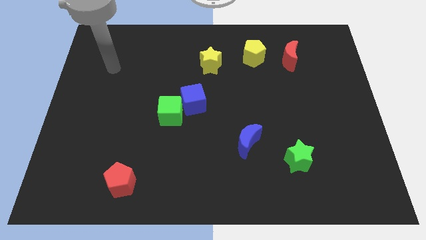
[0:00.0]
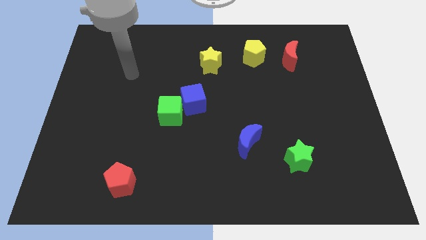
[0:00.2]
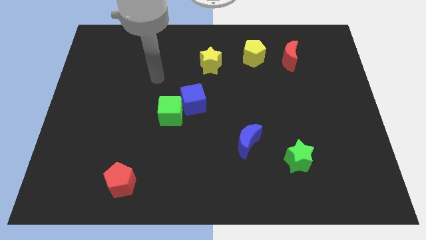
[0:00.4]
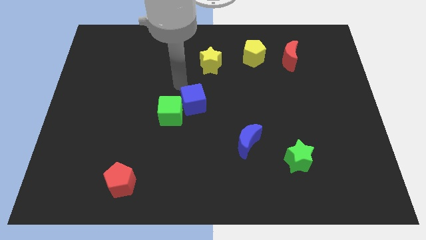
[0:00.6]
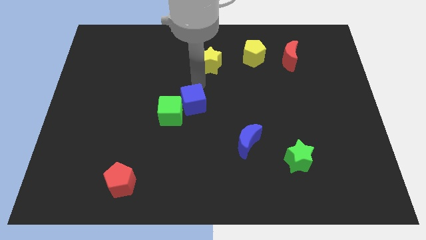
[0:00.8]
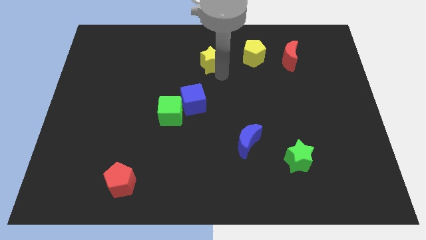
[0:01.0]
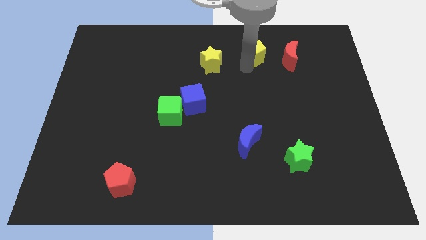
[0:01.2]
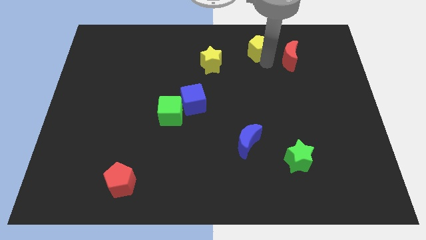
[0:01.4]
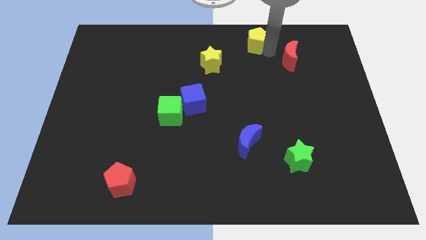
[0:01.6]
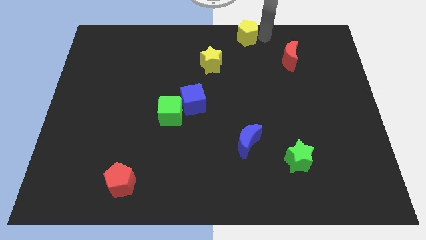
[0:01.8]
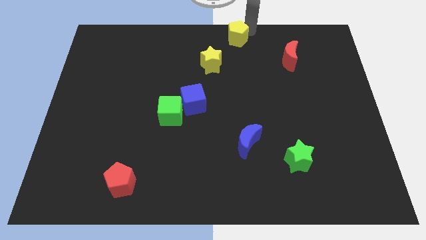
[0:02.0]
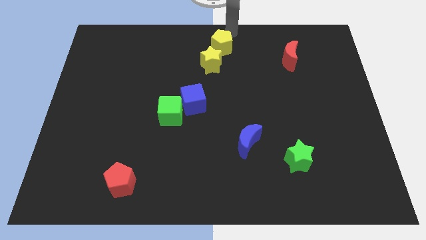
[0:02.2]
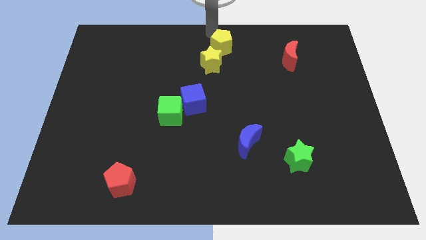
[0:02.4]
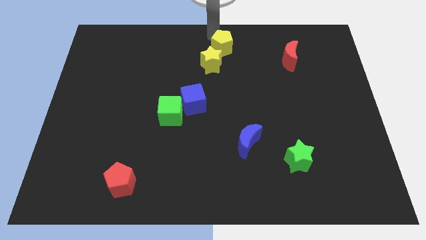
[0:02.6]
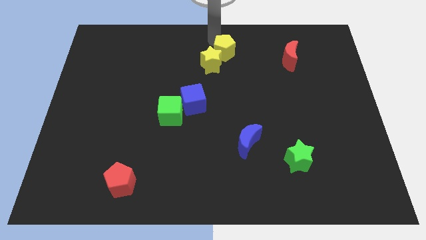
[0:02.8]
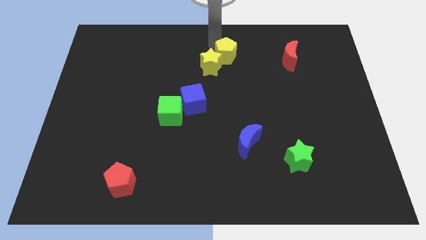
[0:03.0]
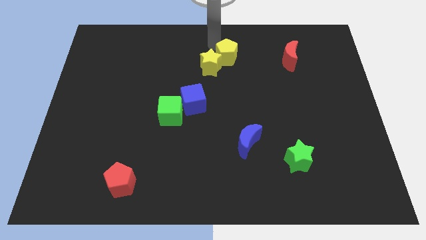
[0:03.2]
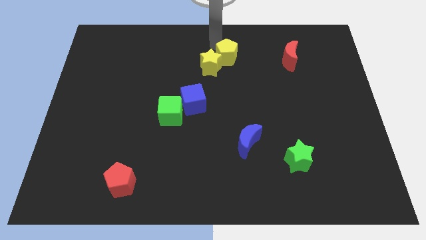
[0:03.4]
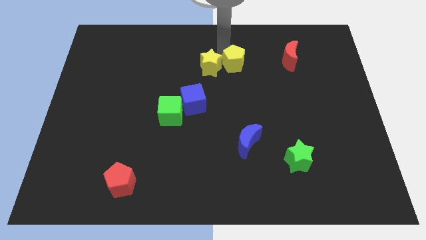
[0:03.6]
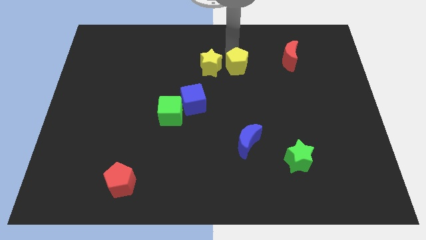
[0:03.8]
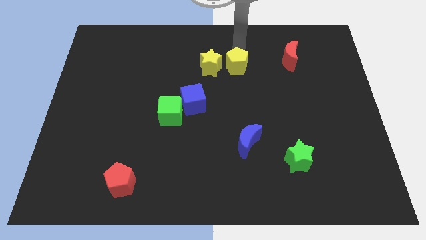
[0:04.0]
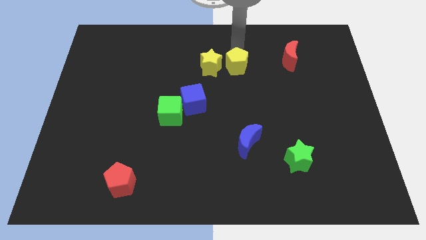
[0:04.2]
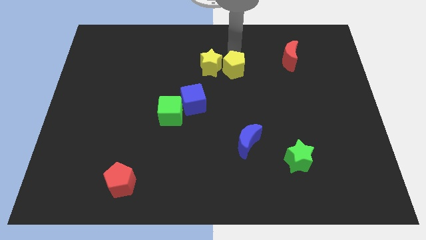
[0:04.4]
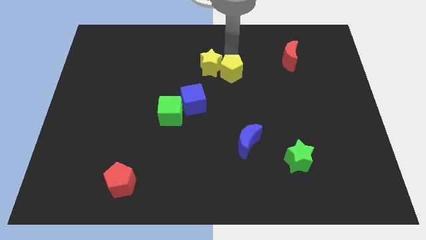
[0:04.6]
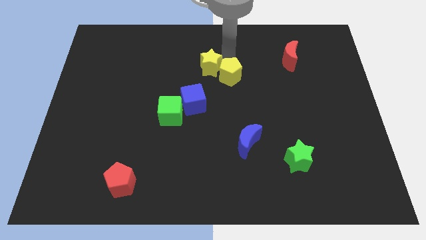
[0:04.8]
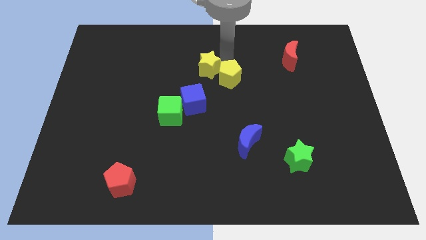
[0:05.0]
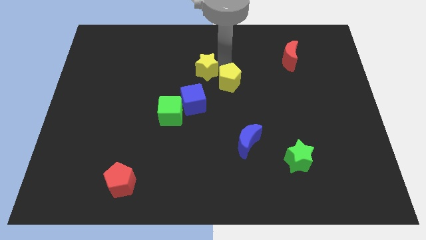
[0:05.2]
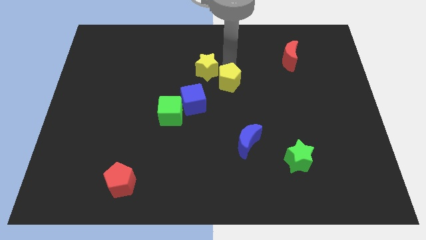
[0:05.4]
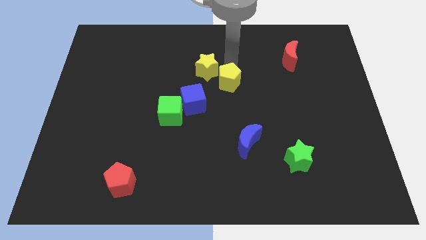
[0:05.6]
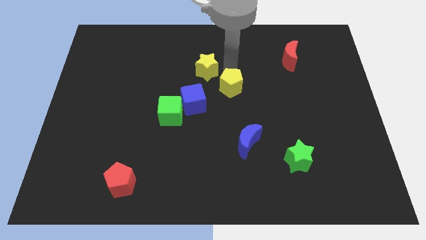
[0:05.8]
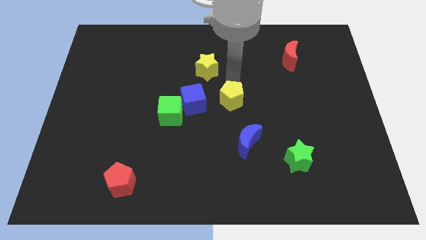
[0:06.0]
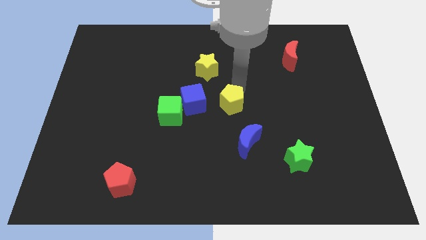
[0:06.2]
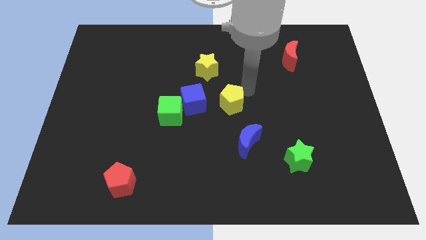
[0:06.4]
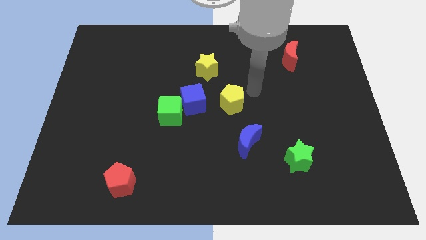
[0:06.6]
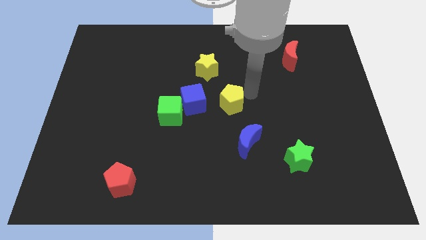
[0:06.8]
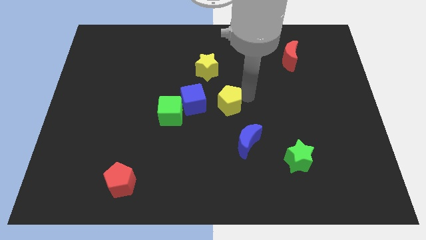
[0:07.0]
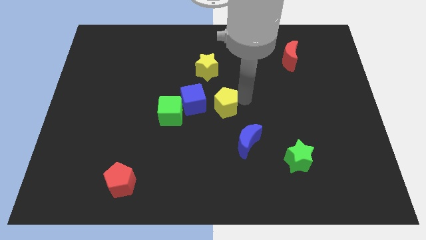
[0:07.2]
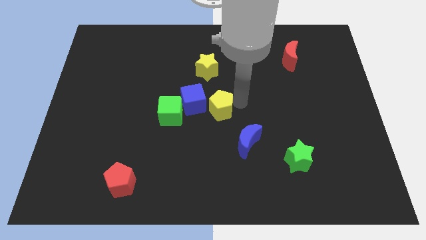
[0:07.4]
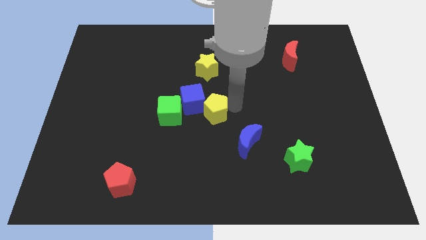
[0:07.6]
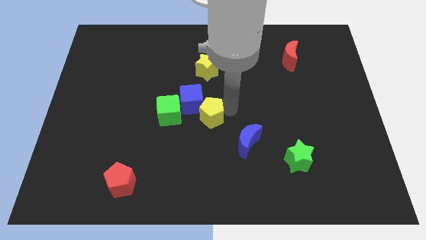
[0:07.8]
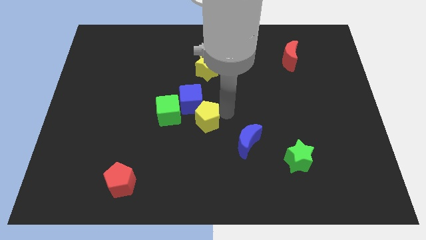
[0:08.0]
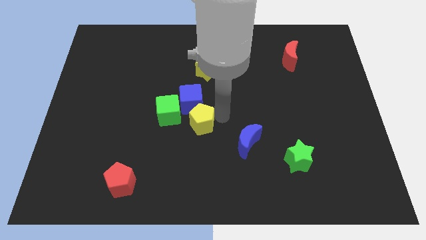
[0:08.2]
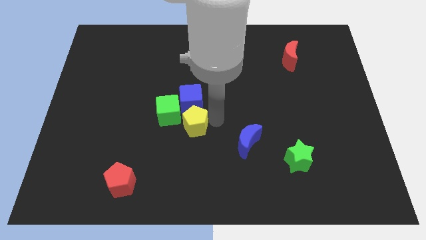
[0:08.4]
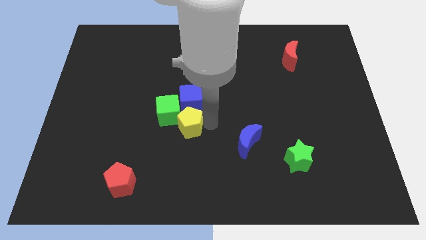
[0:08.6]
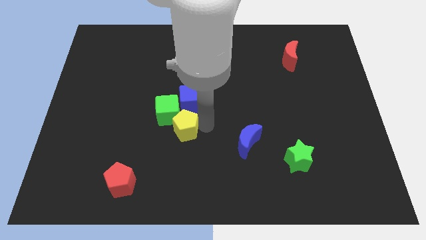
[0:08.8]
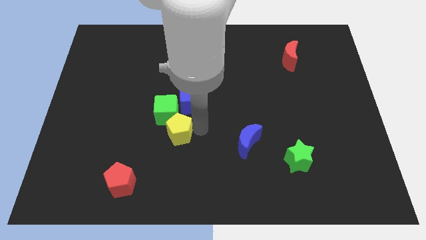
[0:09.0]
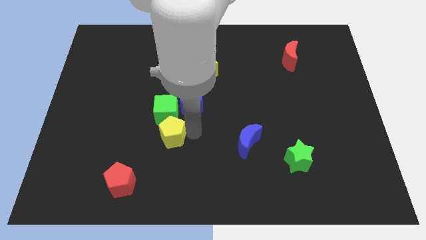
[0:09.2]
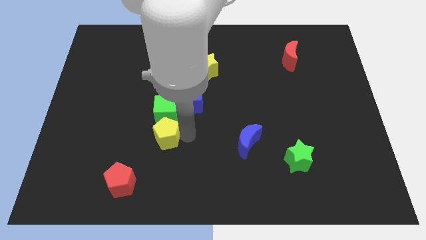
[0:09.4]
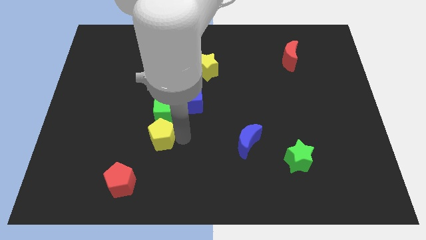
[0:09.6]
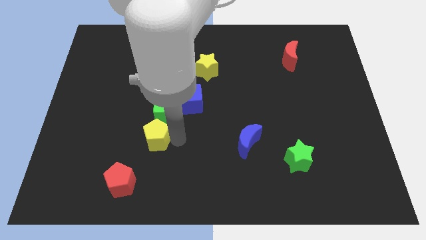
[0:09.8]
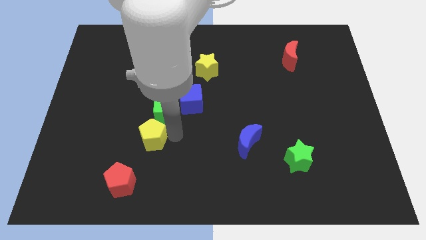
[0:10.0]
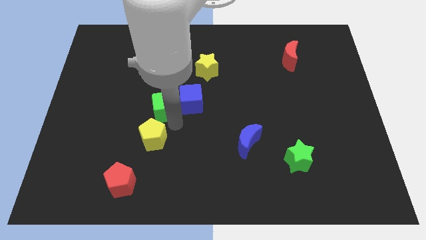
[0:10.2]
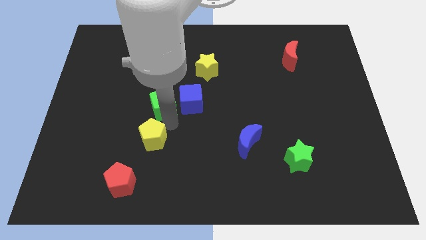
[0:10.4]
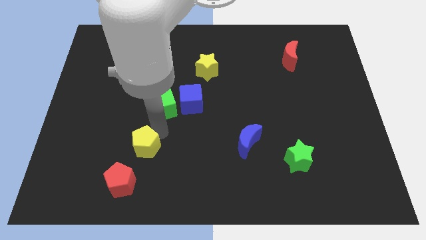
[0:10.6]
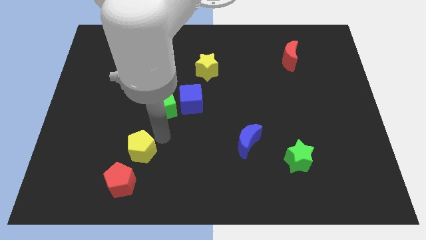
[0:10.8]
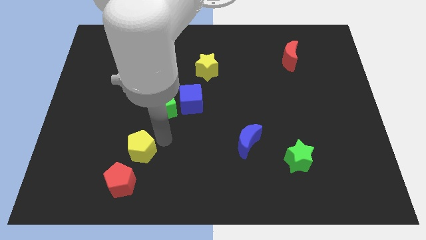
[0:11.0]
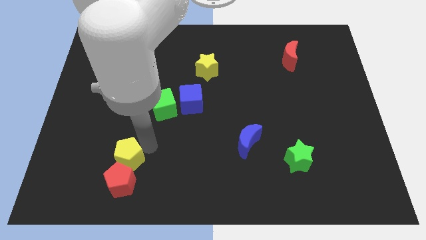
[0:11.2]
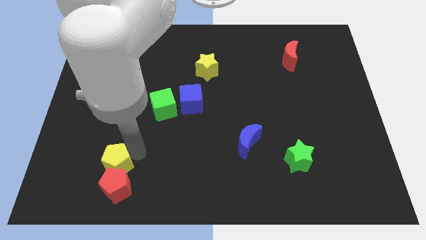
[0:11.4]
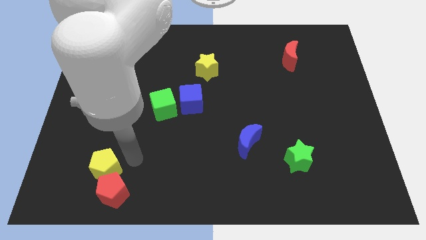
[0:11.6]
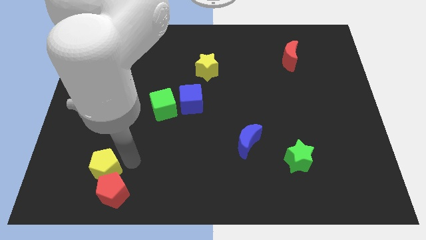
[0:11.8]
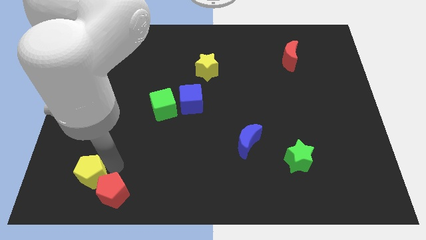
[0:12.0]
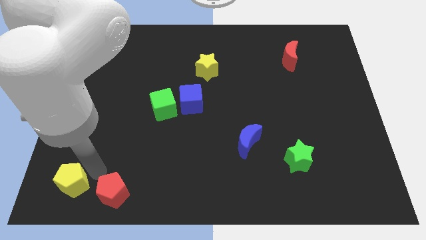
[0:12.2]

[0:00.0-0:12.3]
push the yellow pentagon to the lower left corner

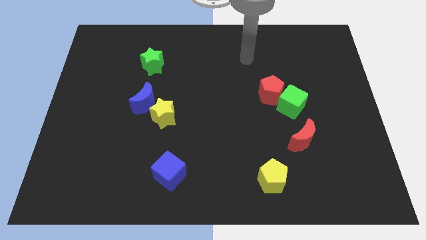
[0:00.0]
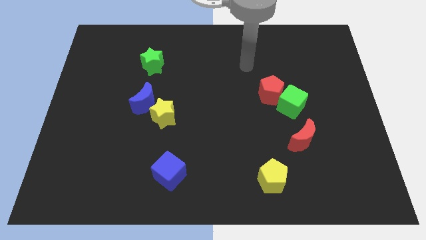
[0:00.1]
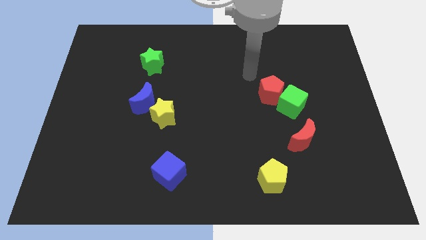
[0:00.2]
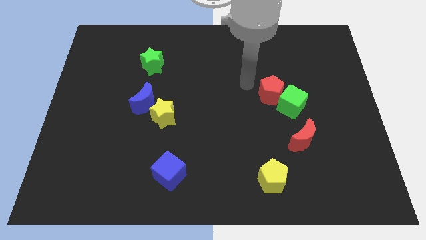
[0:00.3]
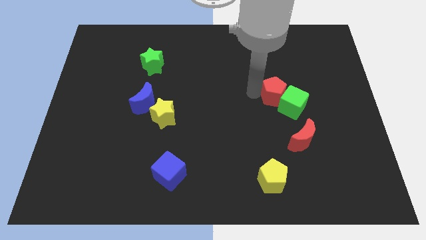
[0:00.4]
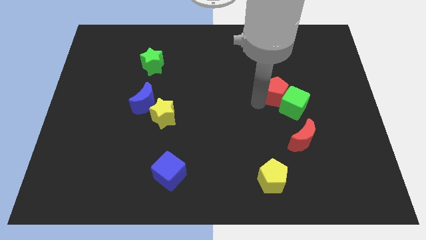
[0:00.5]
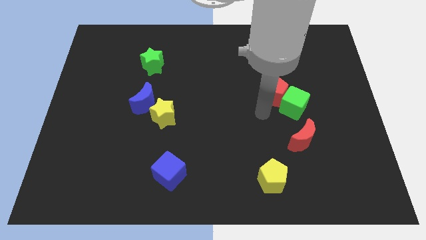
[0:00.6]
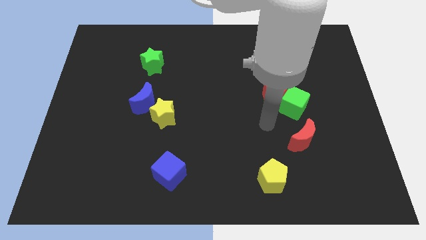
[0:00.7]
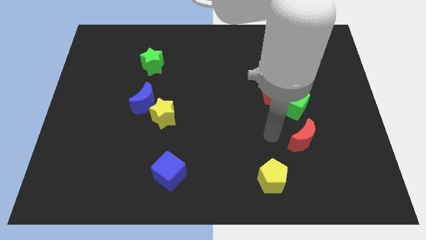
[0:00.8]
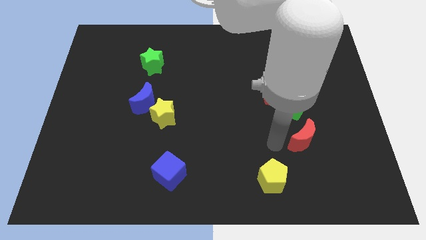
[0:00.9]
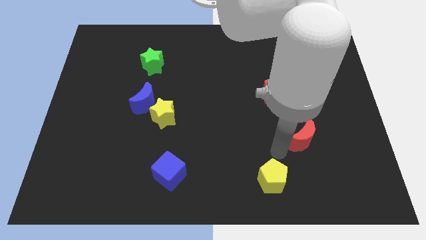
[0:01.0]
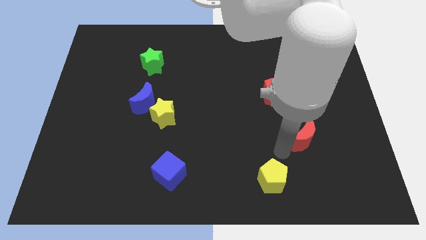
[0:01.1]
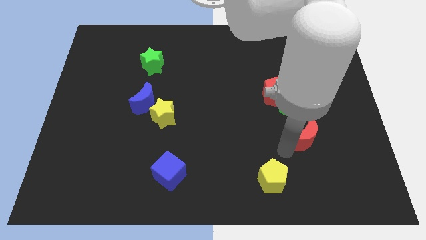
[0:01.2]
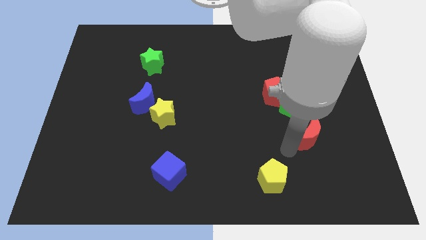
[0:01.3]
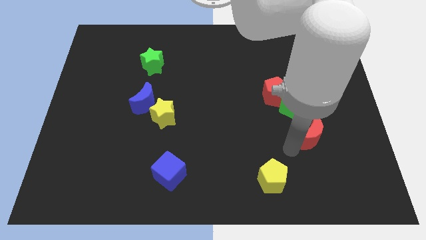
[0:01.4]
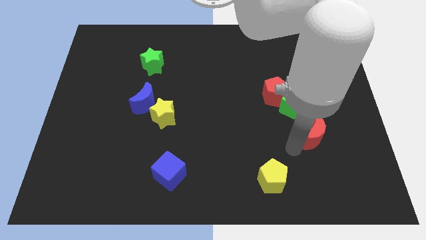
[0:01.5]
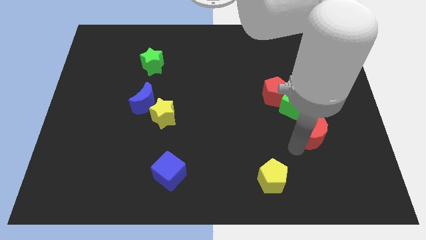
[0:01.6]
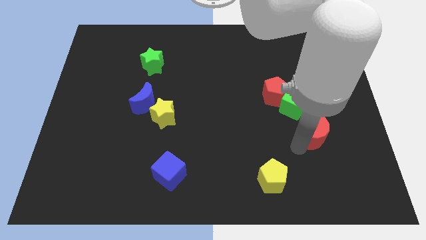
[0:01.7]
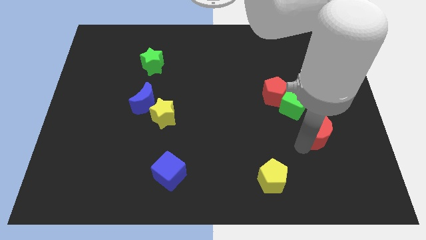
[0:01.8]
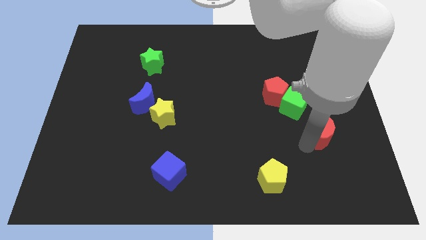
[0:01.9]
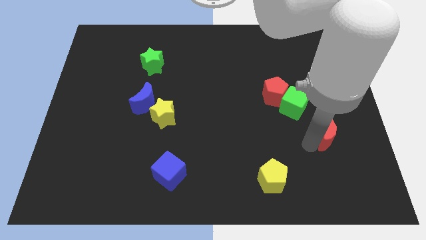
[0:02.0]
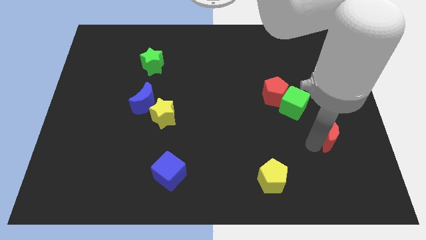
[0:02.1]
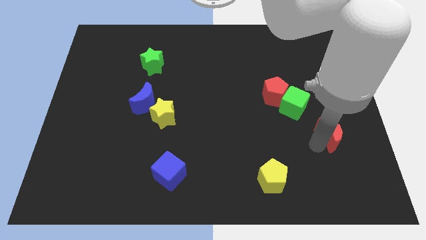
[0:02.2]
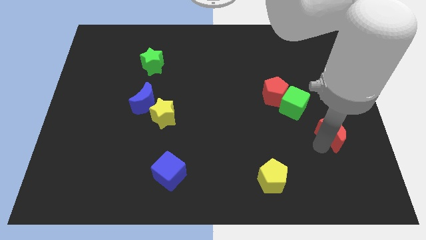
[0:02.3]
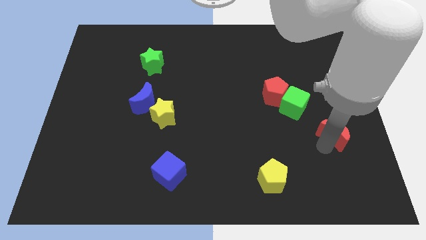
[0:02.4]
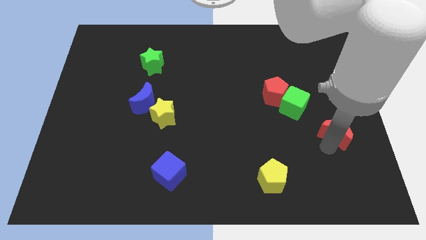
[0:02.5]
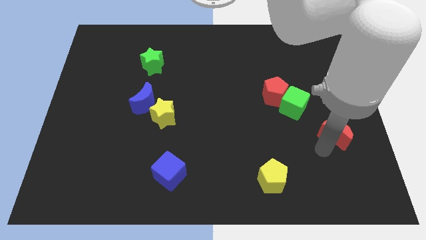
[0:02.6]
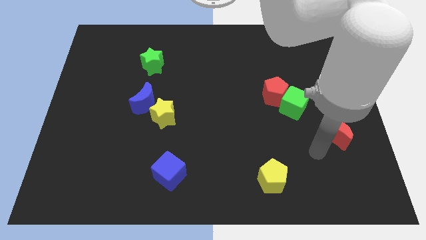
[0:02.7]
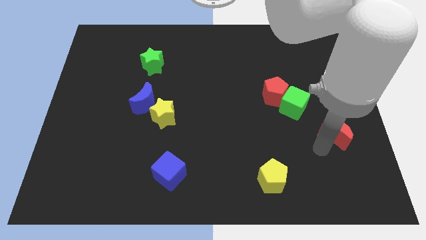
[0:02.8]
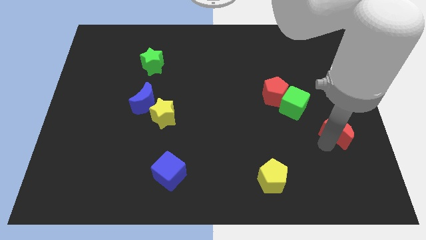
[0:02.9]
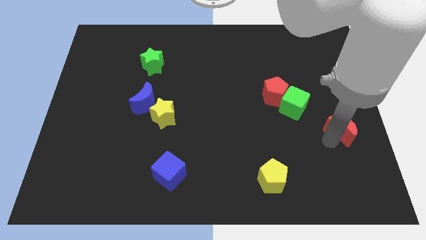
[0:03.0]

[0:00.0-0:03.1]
move the red moon to the right side of the board
